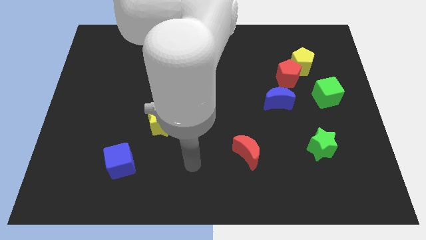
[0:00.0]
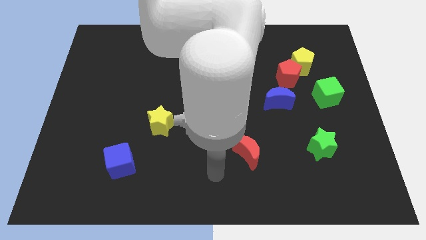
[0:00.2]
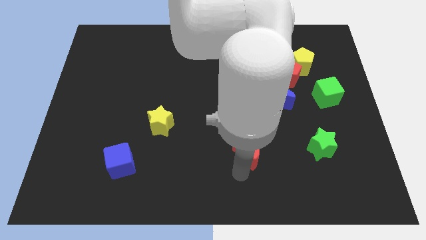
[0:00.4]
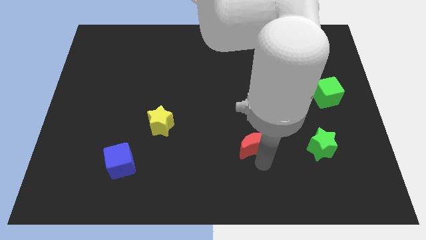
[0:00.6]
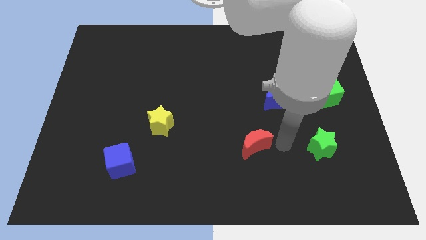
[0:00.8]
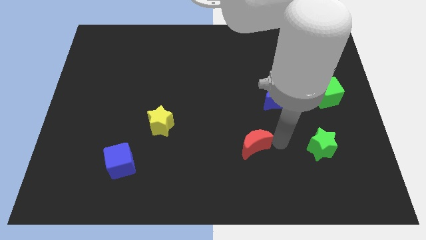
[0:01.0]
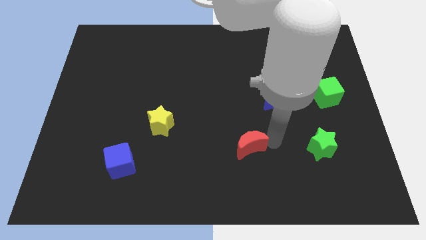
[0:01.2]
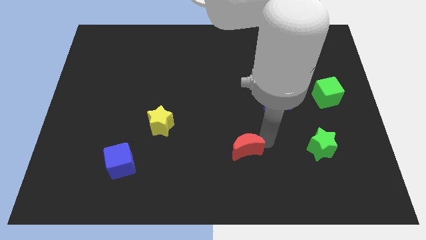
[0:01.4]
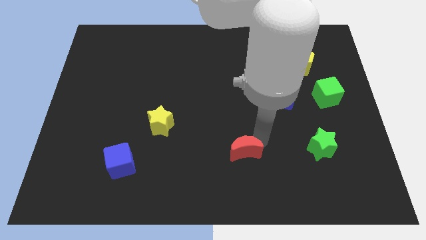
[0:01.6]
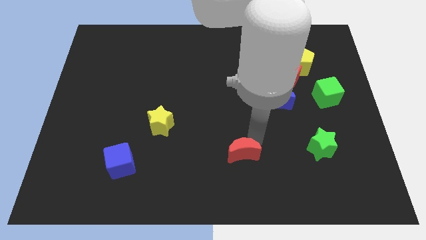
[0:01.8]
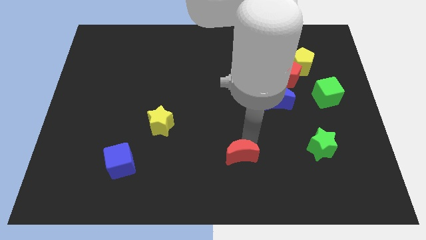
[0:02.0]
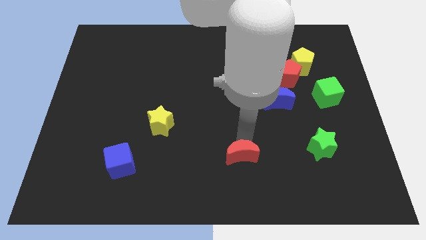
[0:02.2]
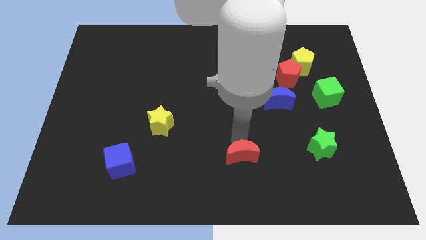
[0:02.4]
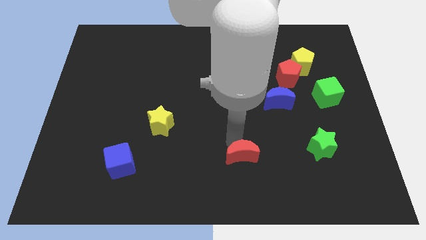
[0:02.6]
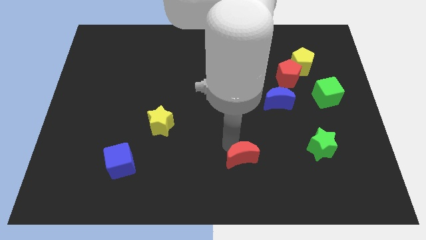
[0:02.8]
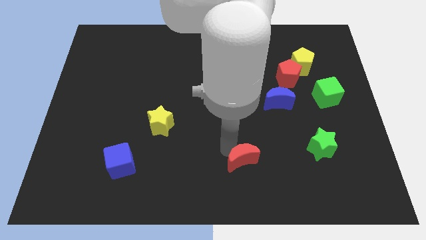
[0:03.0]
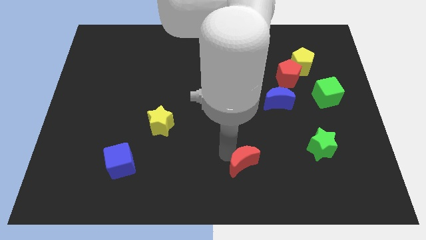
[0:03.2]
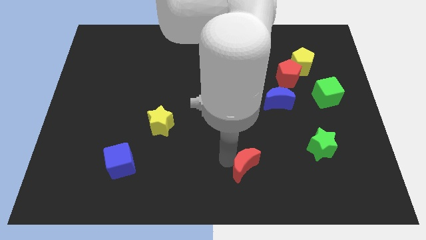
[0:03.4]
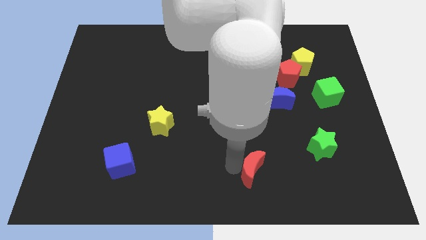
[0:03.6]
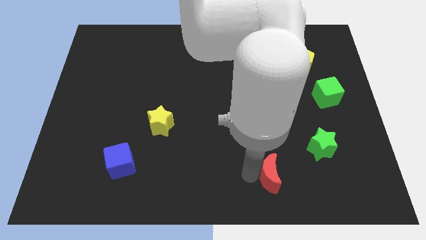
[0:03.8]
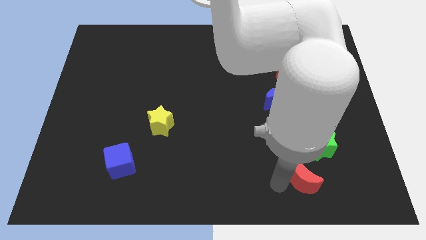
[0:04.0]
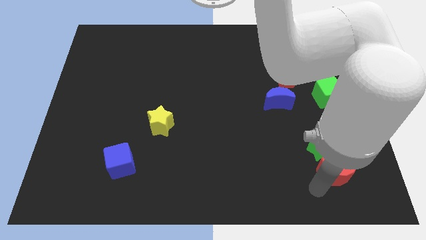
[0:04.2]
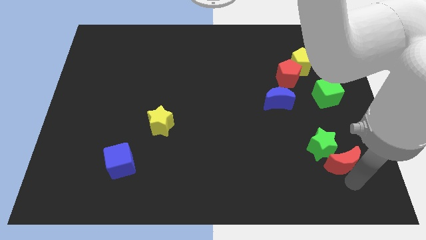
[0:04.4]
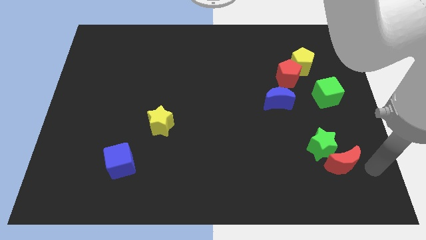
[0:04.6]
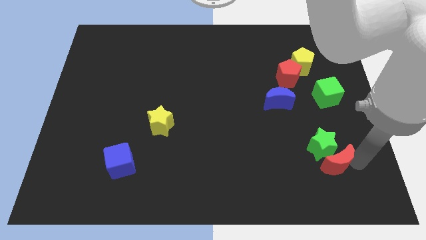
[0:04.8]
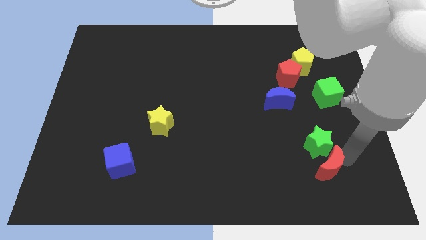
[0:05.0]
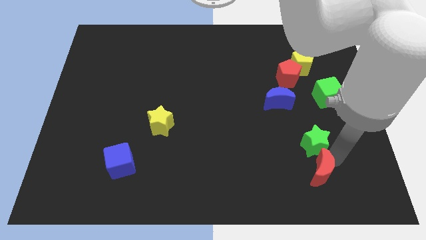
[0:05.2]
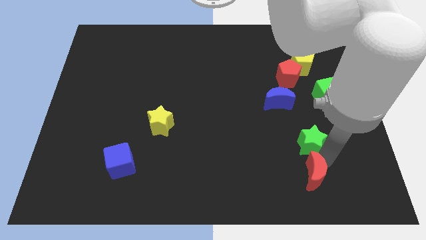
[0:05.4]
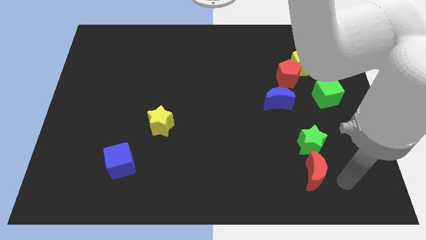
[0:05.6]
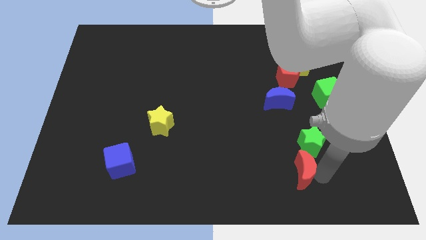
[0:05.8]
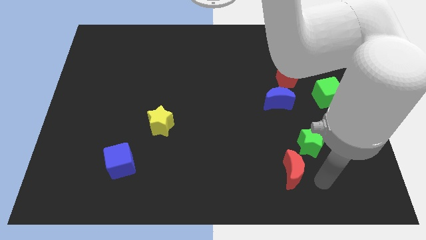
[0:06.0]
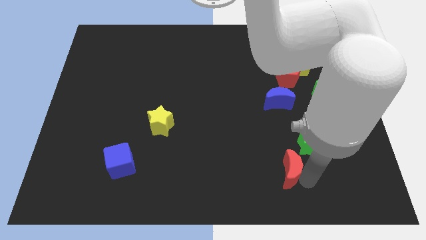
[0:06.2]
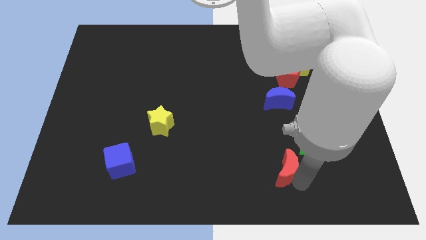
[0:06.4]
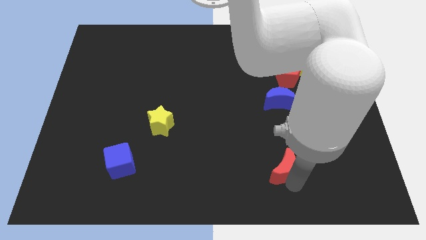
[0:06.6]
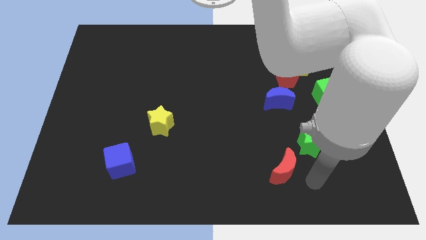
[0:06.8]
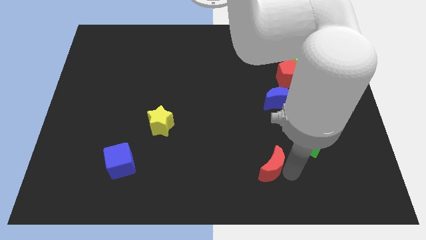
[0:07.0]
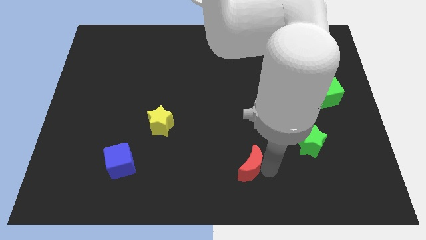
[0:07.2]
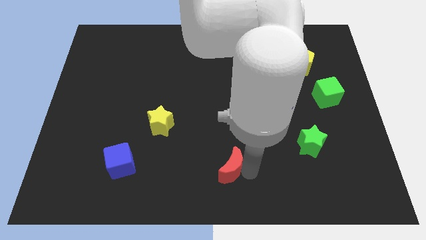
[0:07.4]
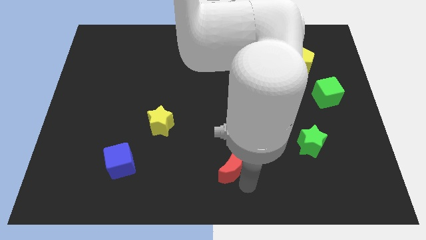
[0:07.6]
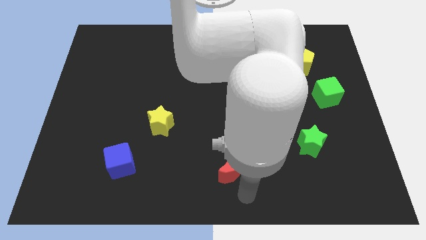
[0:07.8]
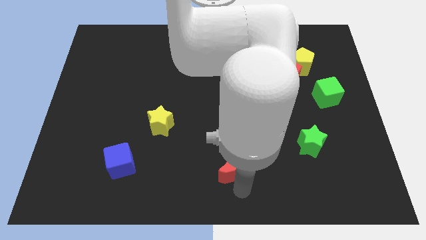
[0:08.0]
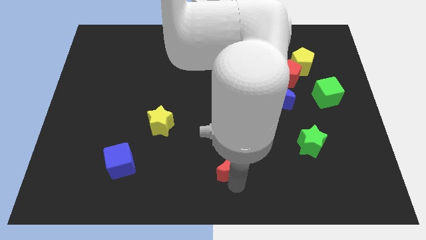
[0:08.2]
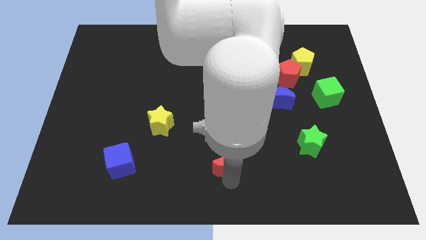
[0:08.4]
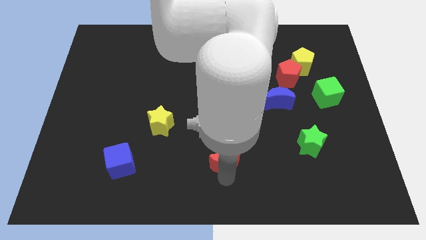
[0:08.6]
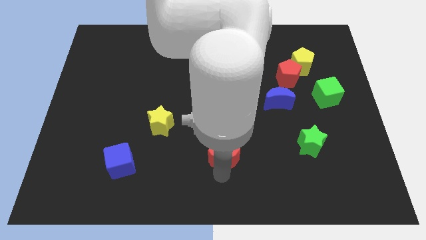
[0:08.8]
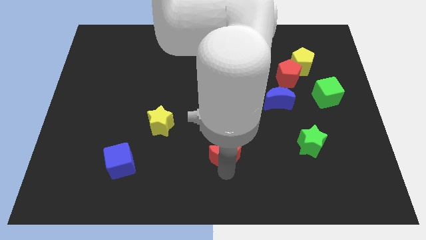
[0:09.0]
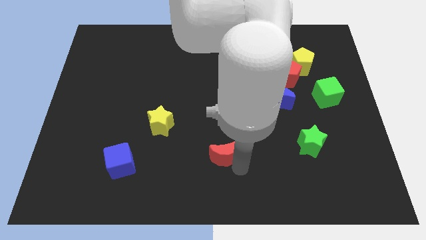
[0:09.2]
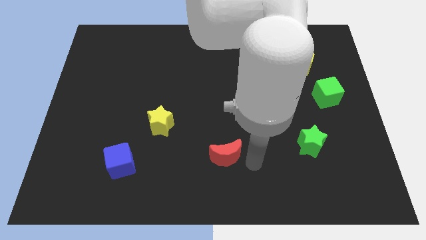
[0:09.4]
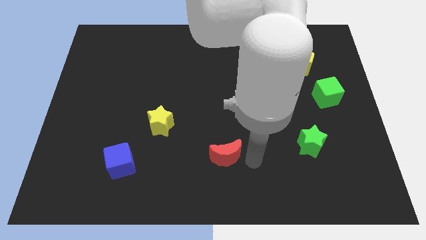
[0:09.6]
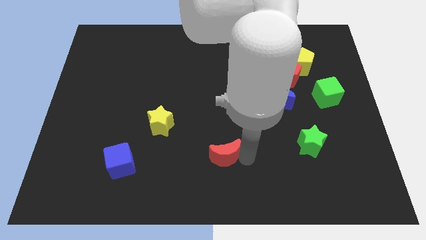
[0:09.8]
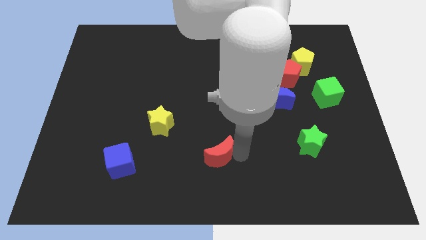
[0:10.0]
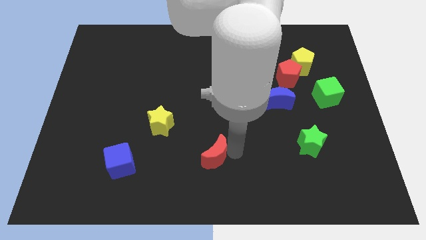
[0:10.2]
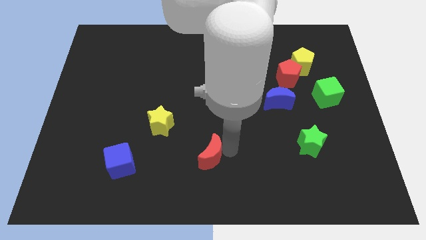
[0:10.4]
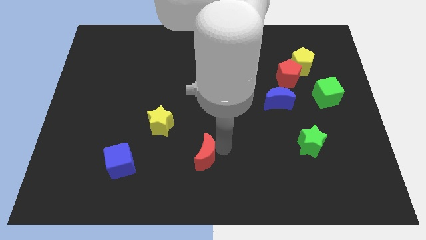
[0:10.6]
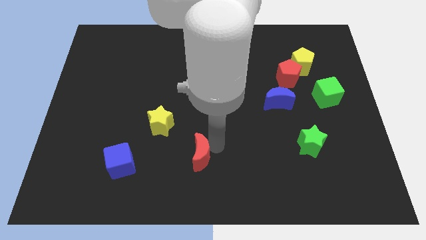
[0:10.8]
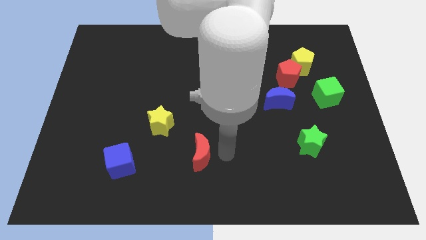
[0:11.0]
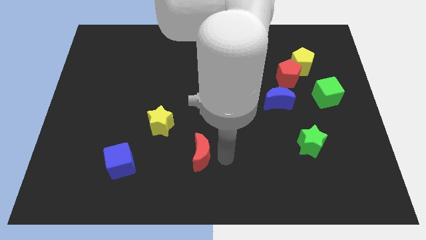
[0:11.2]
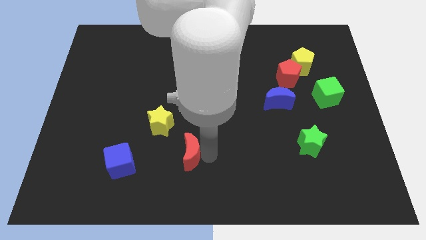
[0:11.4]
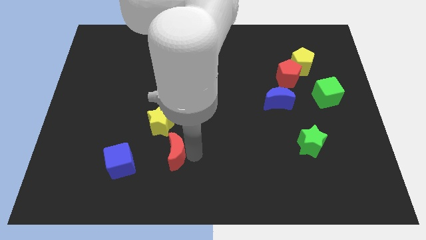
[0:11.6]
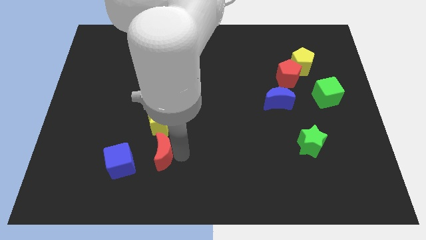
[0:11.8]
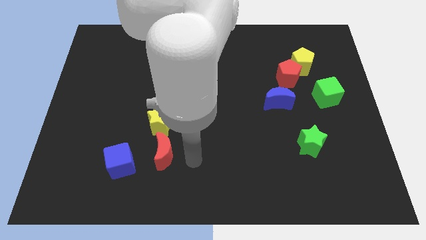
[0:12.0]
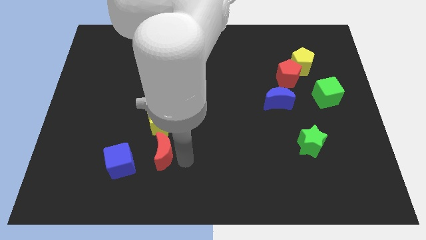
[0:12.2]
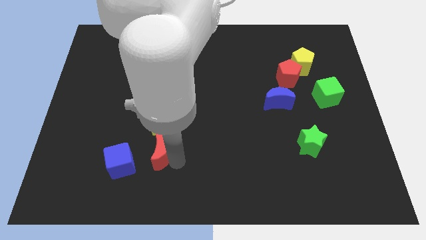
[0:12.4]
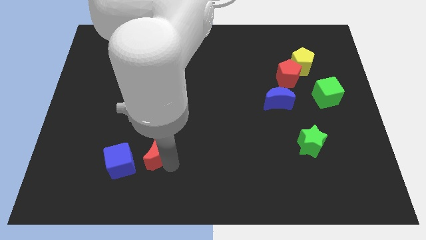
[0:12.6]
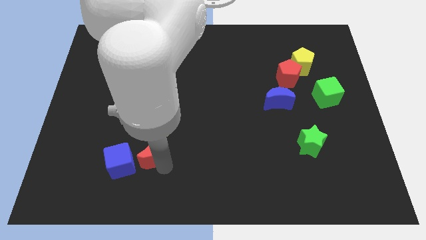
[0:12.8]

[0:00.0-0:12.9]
slide the red moon to the left

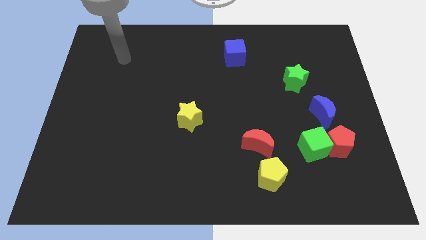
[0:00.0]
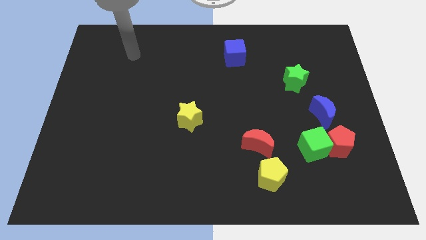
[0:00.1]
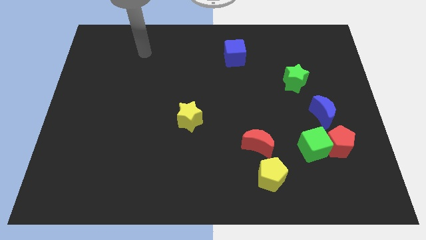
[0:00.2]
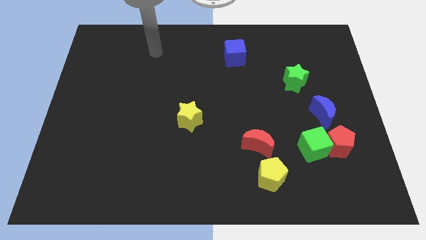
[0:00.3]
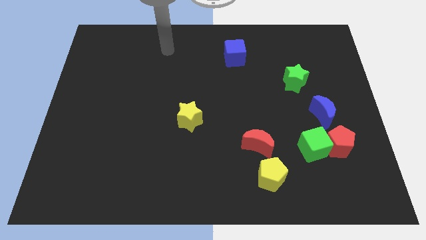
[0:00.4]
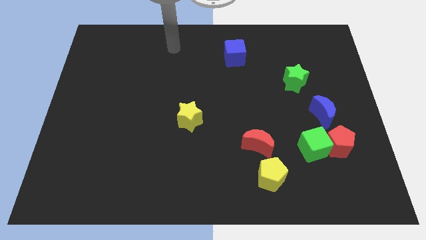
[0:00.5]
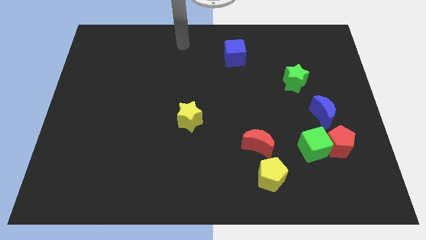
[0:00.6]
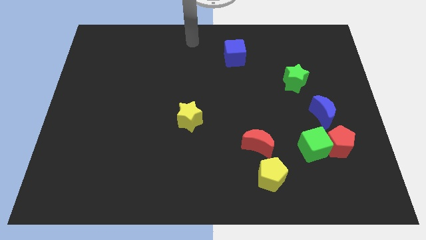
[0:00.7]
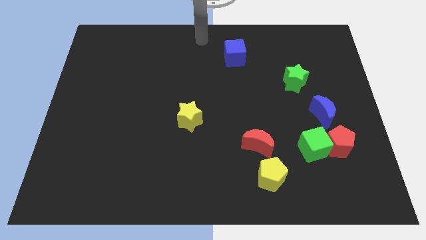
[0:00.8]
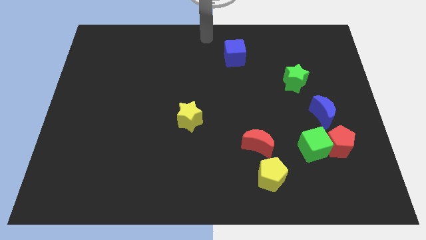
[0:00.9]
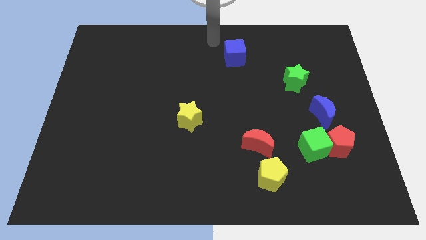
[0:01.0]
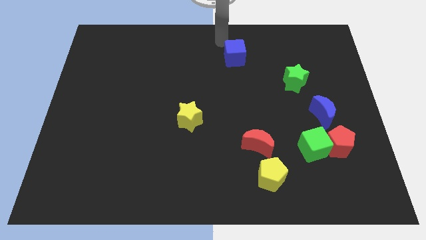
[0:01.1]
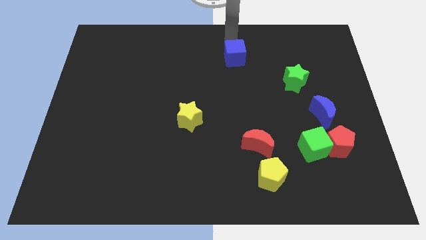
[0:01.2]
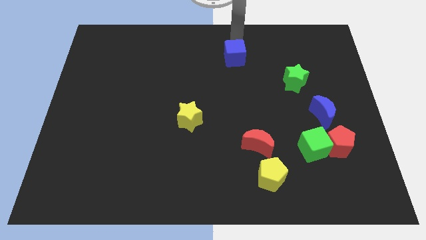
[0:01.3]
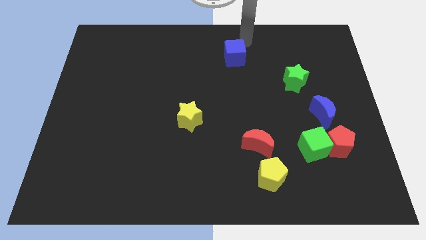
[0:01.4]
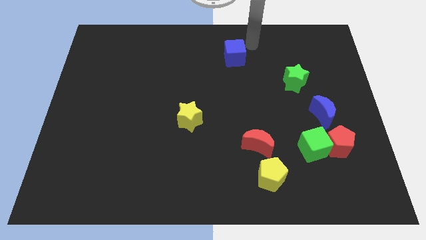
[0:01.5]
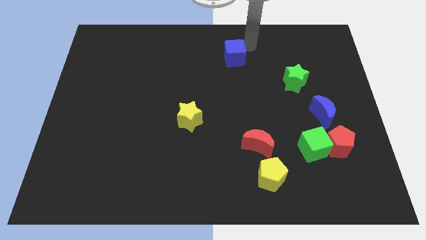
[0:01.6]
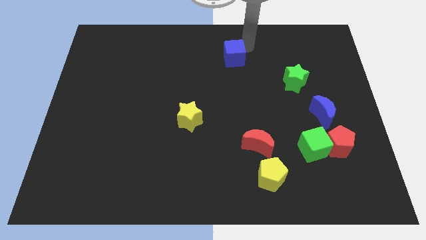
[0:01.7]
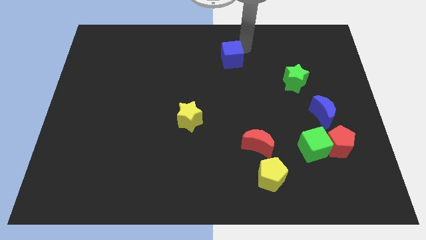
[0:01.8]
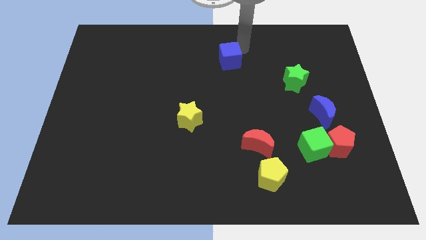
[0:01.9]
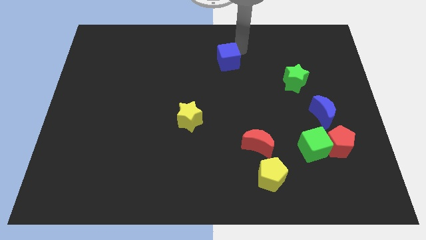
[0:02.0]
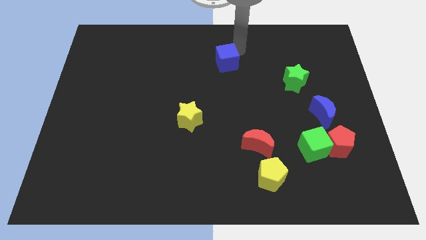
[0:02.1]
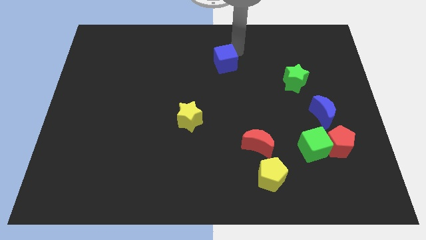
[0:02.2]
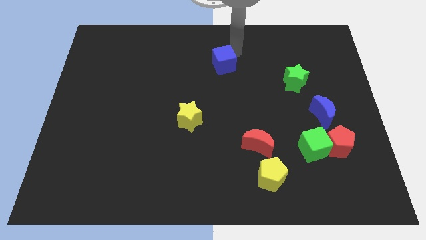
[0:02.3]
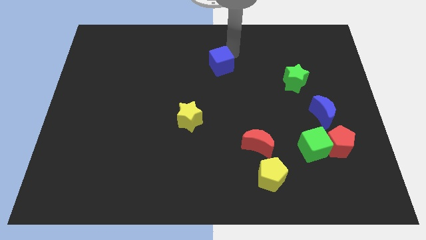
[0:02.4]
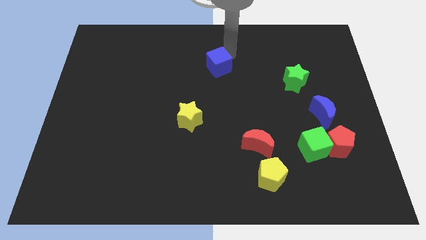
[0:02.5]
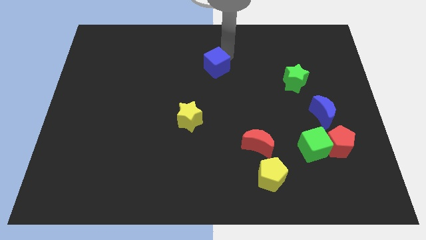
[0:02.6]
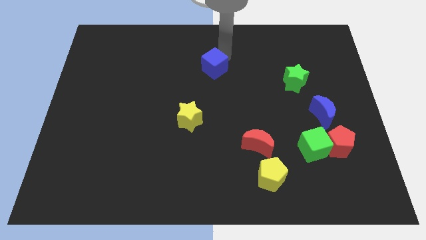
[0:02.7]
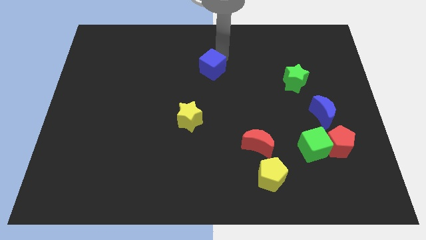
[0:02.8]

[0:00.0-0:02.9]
slightly move the blue cube diagonally down and to the left
